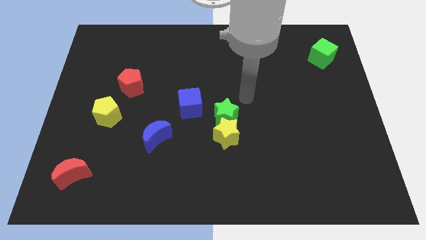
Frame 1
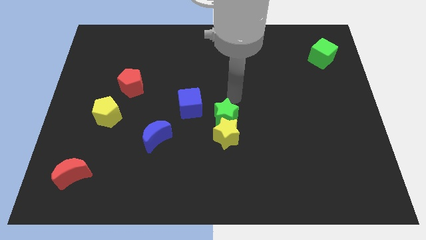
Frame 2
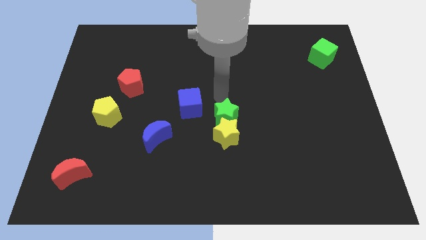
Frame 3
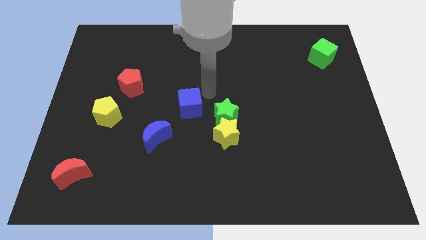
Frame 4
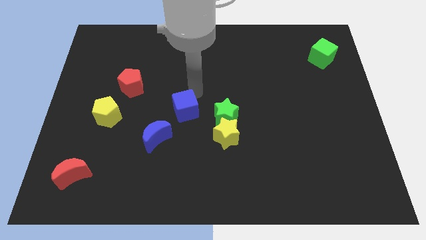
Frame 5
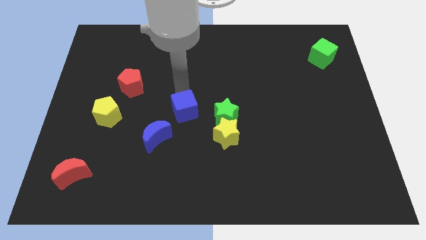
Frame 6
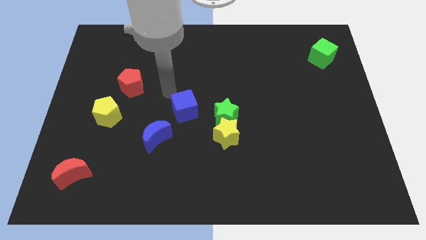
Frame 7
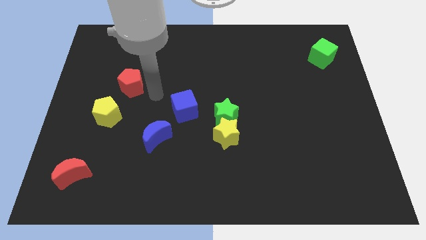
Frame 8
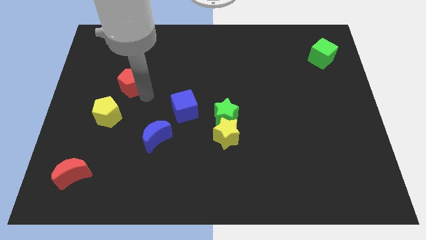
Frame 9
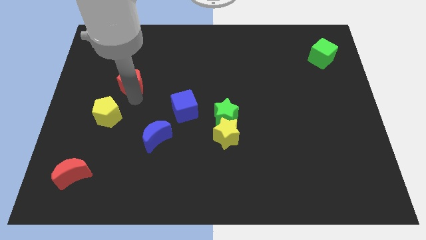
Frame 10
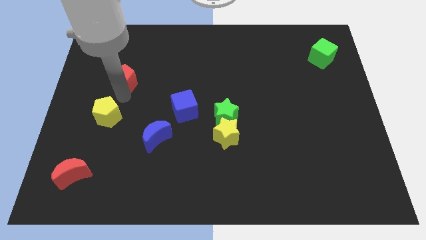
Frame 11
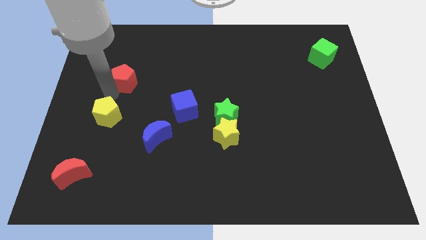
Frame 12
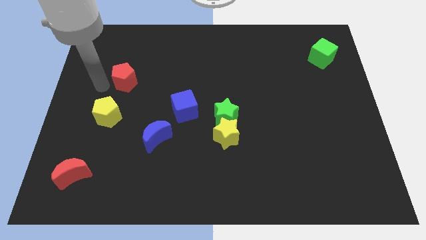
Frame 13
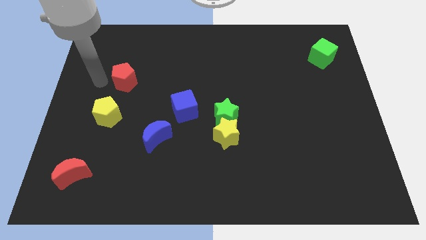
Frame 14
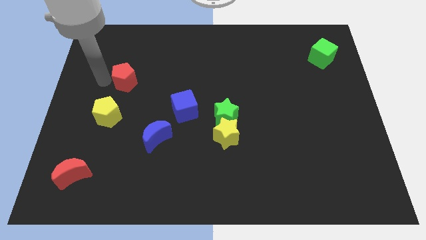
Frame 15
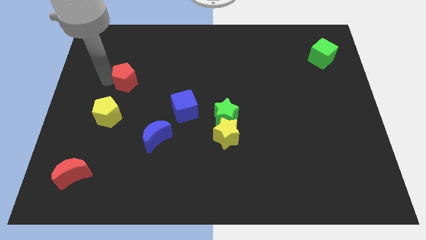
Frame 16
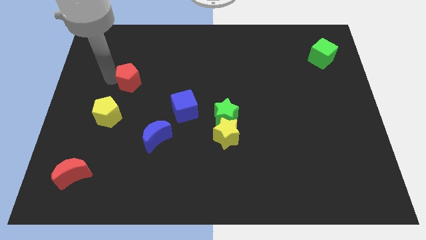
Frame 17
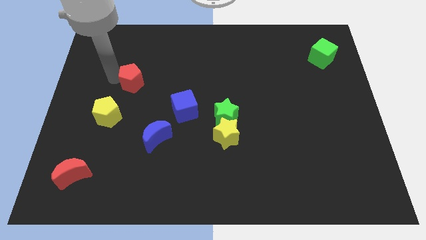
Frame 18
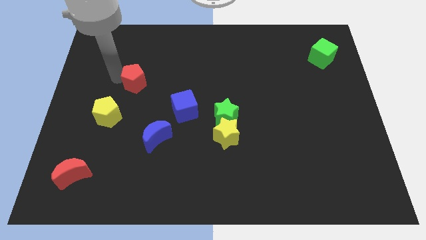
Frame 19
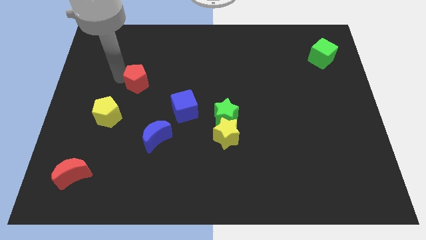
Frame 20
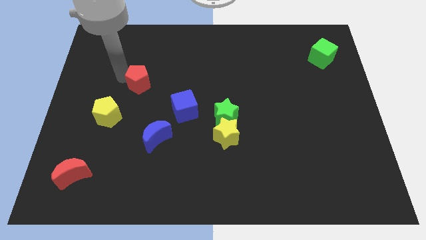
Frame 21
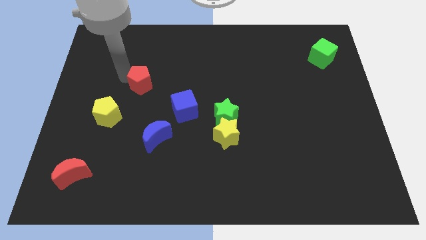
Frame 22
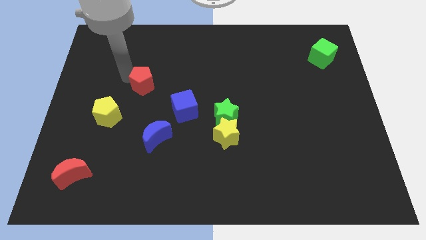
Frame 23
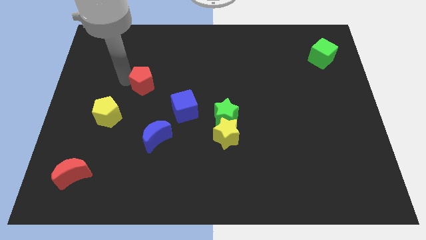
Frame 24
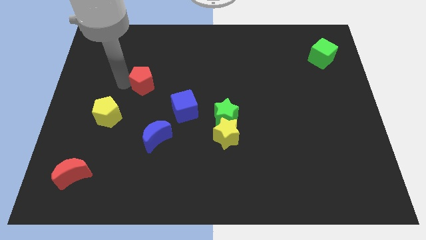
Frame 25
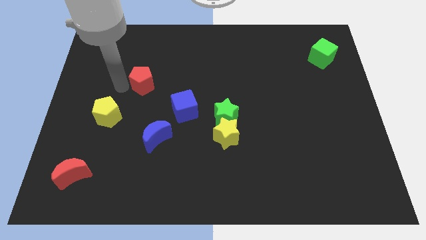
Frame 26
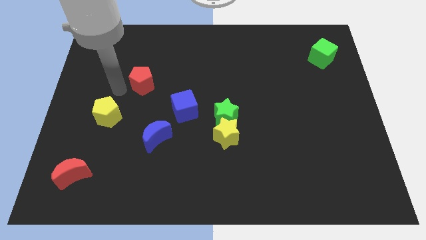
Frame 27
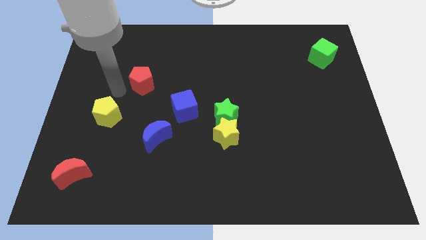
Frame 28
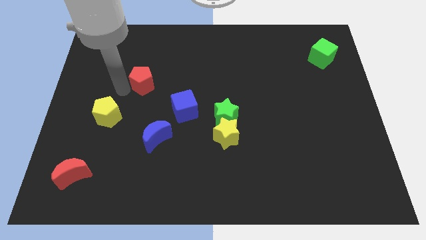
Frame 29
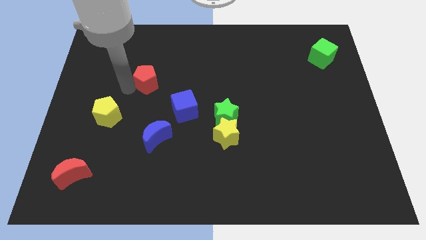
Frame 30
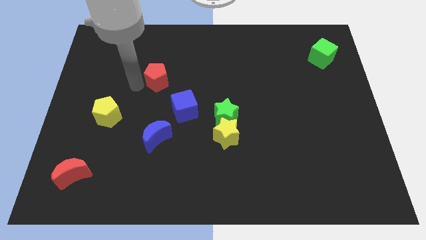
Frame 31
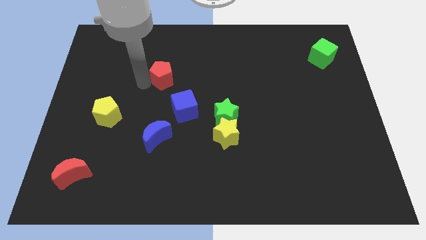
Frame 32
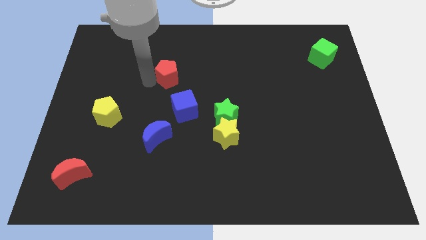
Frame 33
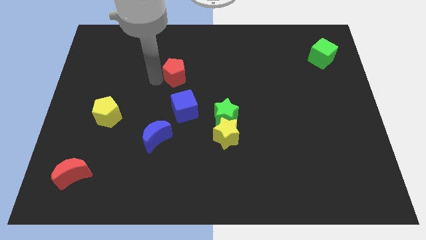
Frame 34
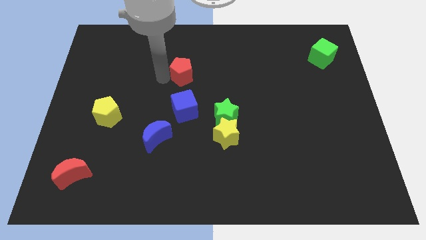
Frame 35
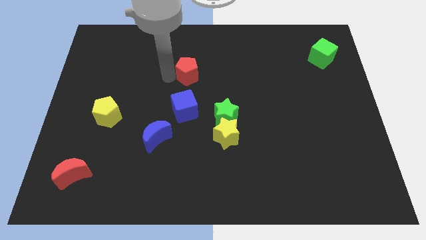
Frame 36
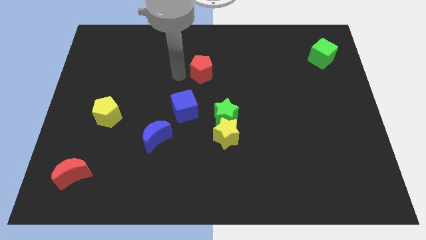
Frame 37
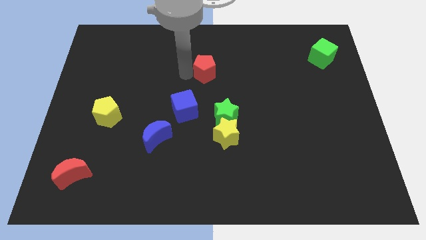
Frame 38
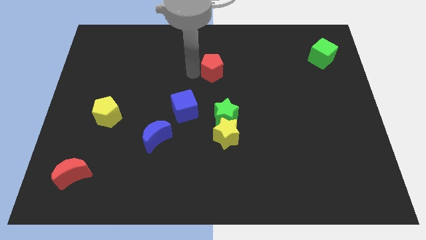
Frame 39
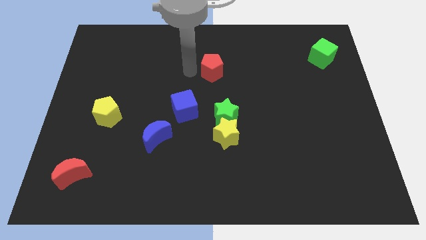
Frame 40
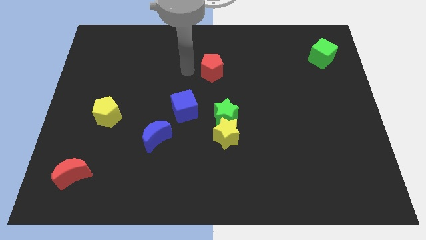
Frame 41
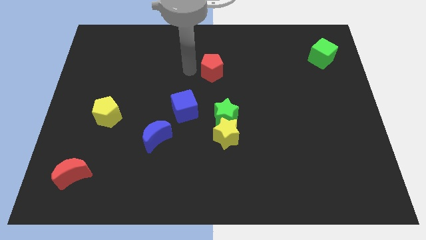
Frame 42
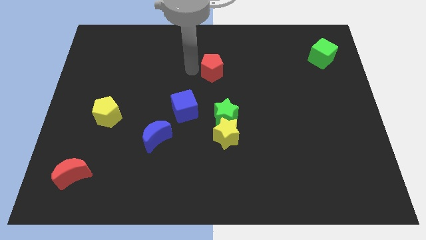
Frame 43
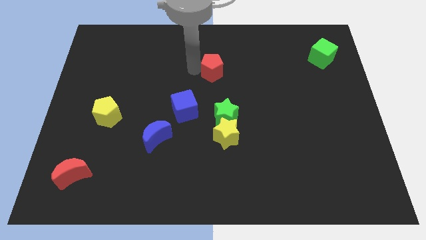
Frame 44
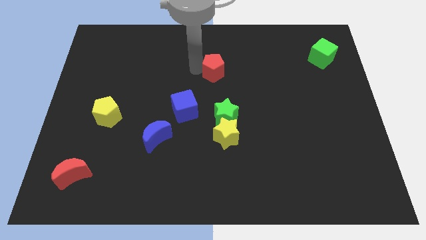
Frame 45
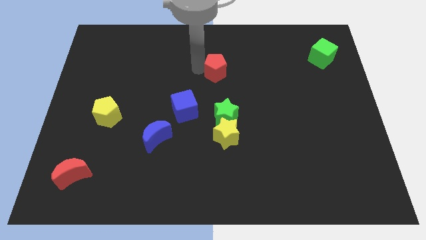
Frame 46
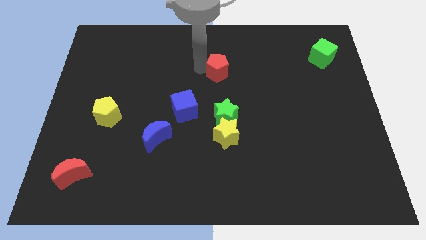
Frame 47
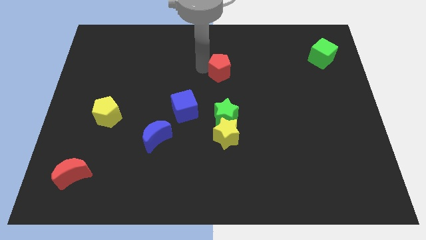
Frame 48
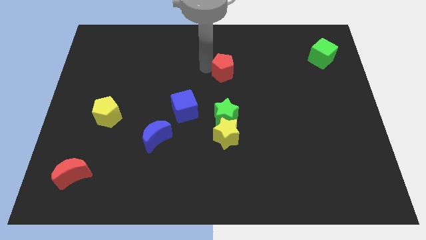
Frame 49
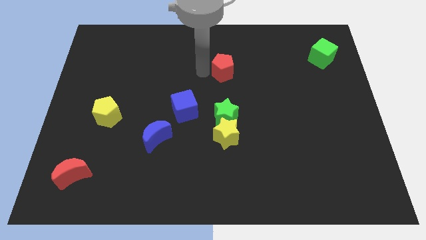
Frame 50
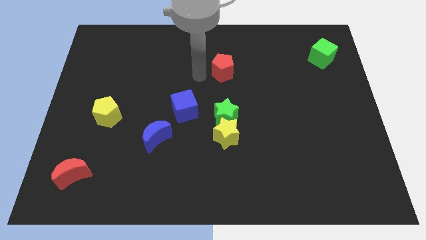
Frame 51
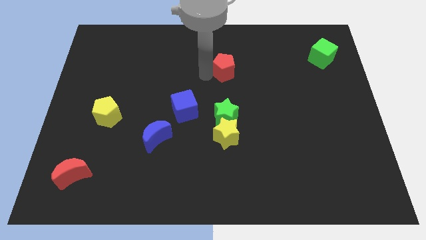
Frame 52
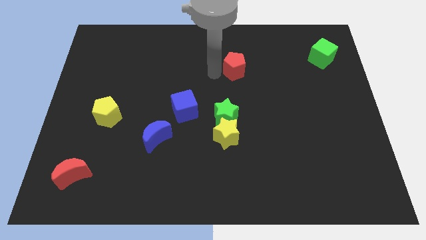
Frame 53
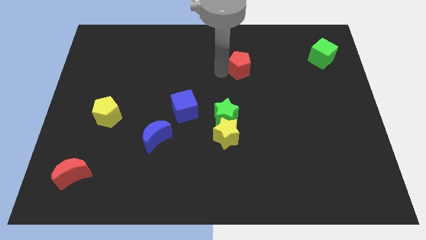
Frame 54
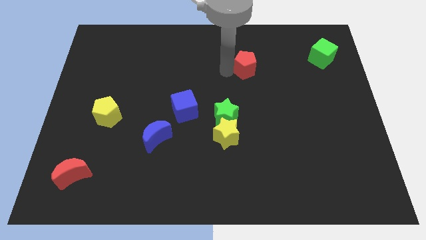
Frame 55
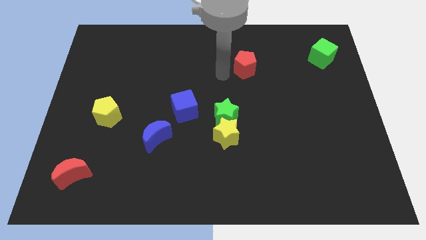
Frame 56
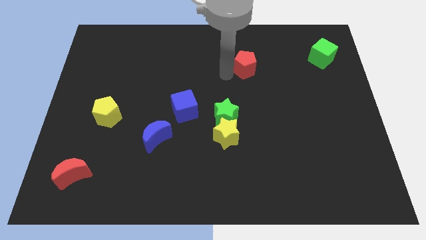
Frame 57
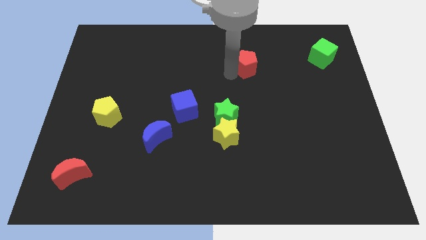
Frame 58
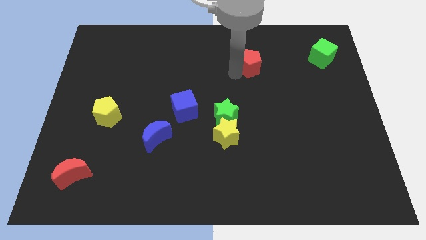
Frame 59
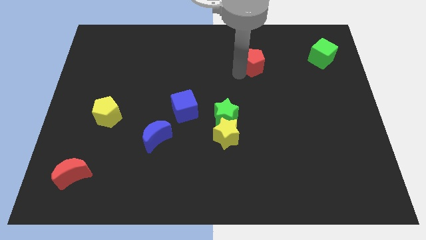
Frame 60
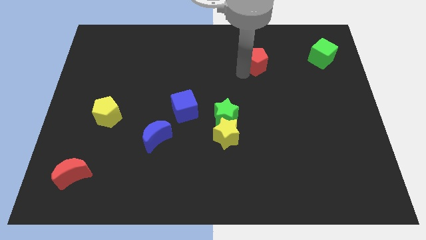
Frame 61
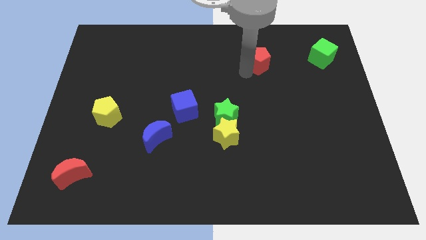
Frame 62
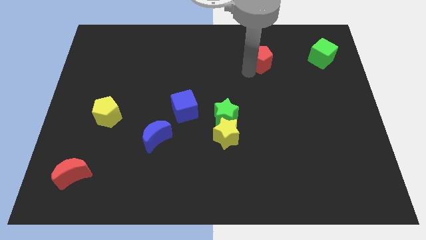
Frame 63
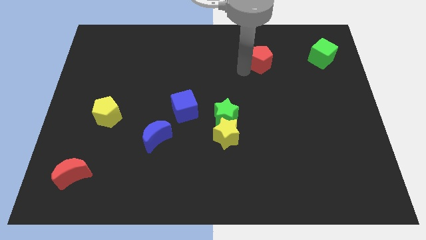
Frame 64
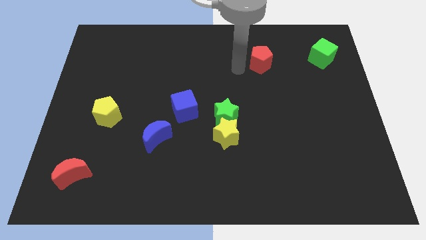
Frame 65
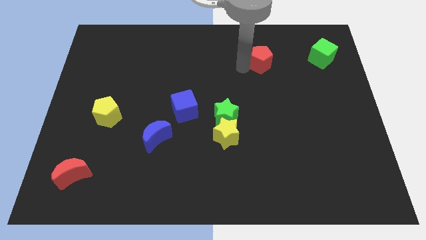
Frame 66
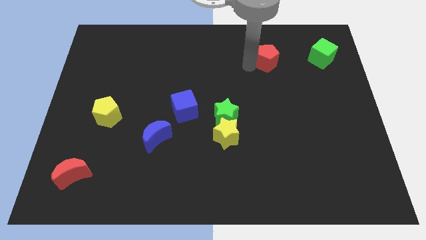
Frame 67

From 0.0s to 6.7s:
move the red pentagon just left of the green cube

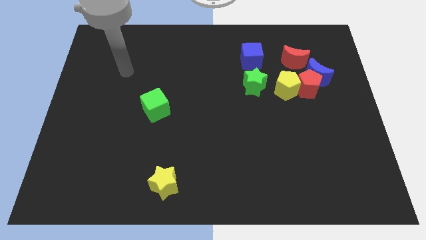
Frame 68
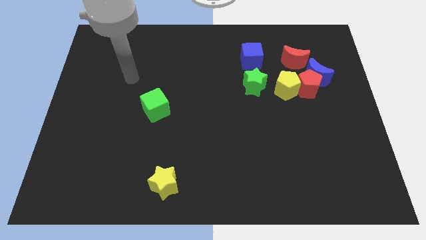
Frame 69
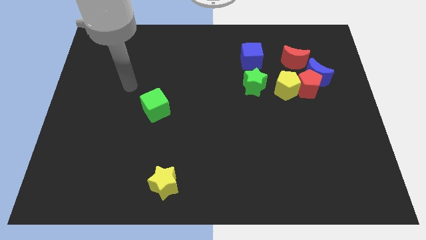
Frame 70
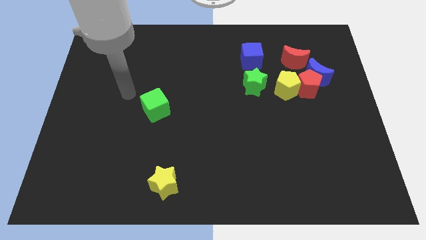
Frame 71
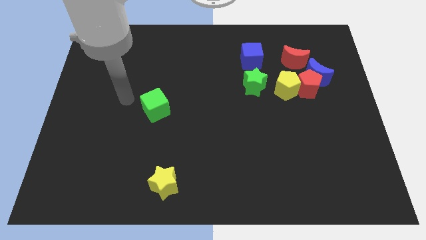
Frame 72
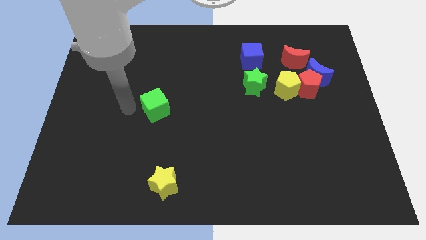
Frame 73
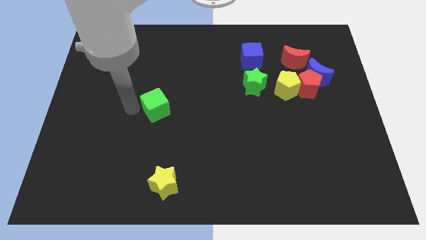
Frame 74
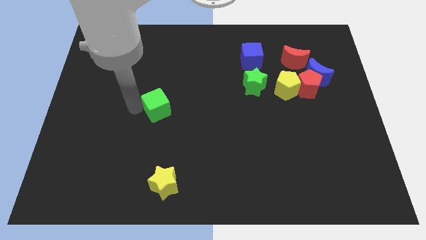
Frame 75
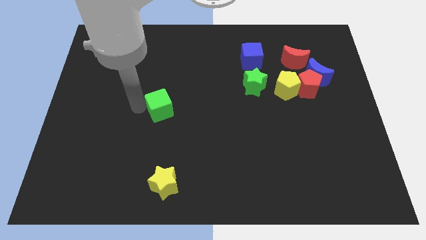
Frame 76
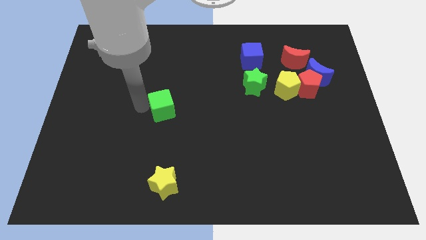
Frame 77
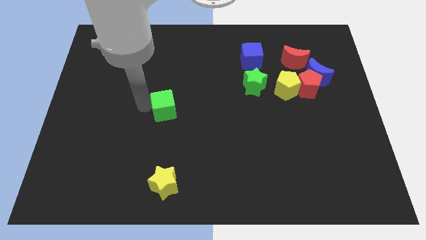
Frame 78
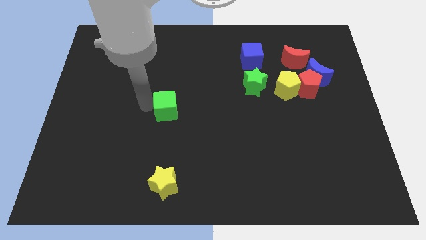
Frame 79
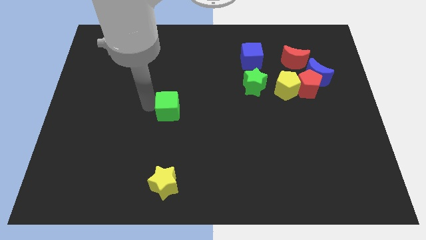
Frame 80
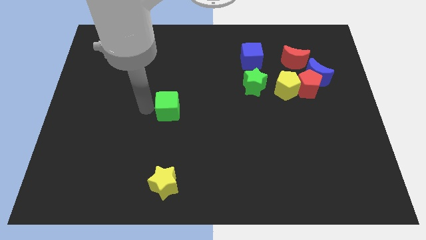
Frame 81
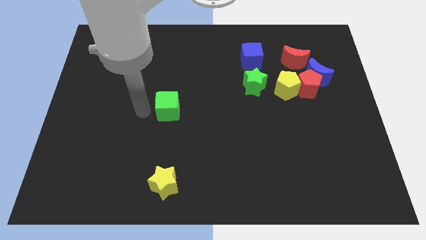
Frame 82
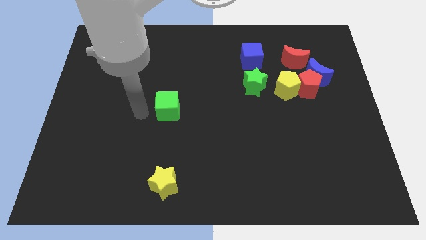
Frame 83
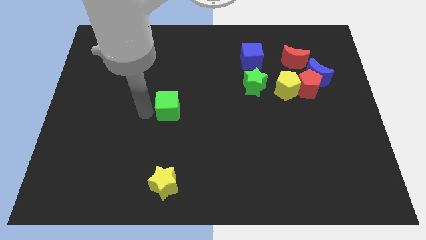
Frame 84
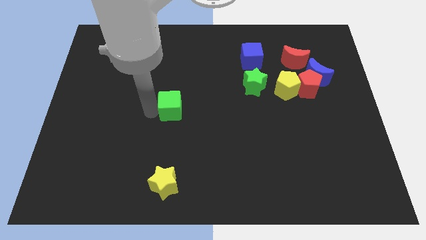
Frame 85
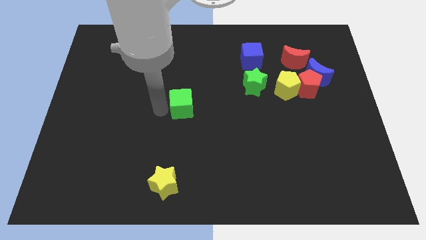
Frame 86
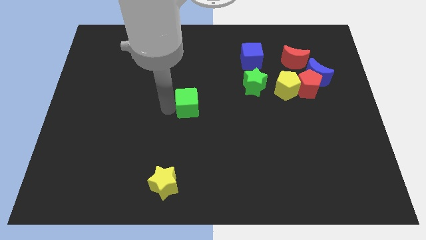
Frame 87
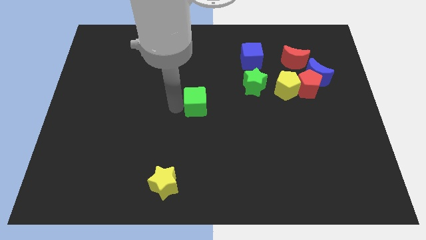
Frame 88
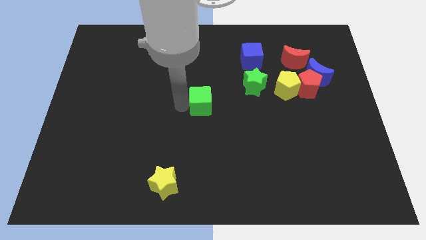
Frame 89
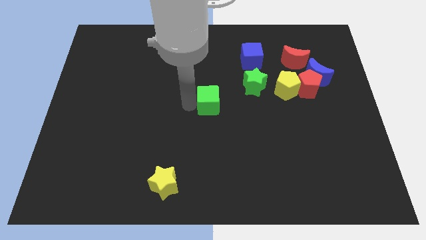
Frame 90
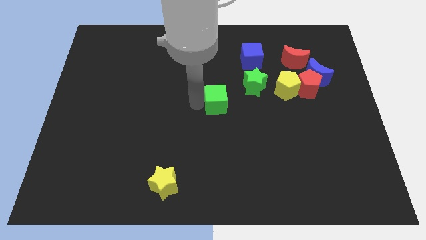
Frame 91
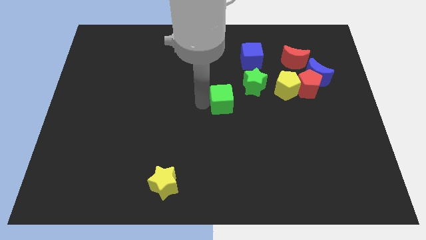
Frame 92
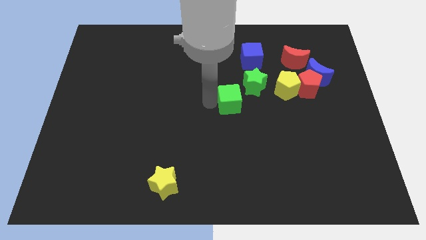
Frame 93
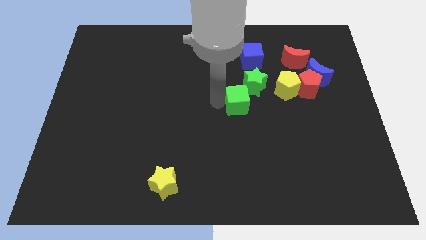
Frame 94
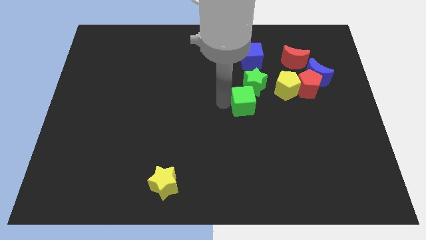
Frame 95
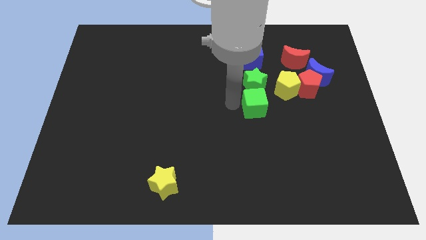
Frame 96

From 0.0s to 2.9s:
slide the green cube diagonally down and to the right of the green star
